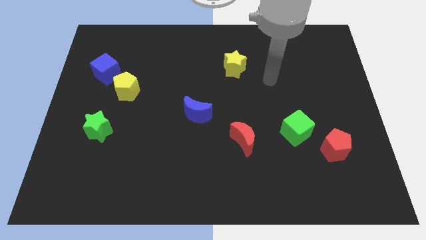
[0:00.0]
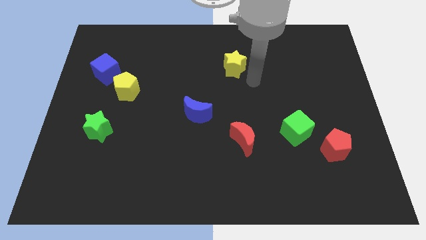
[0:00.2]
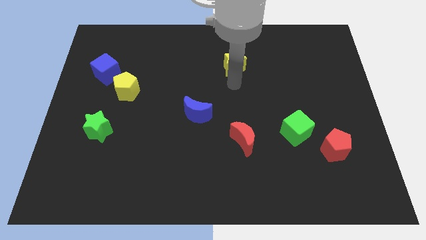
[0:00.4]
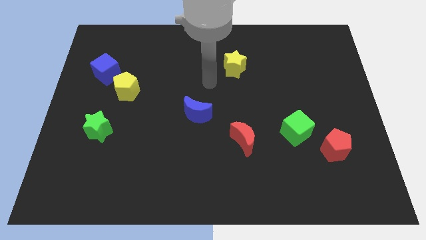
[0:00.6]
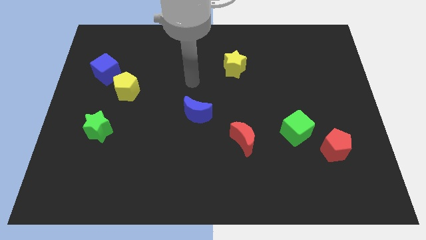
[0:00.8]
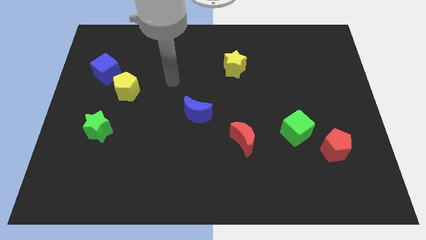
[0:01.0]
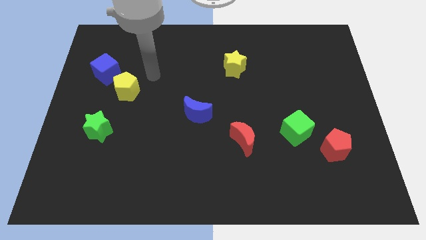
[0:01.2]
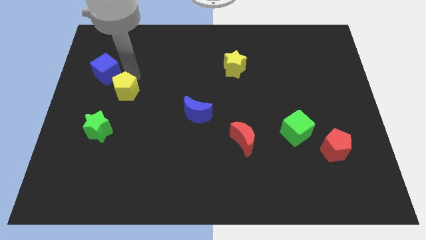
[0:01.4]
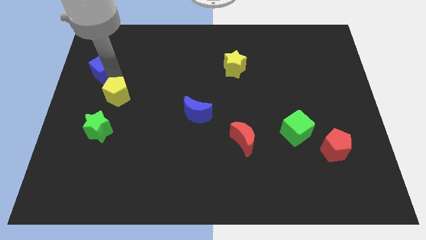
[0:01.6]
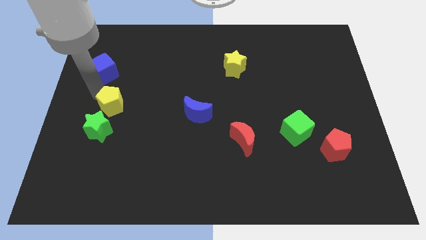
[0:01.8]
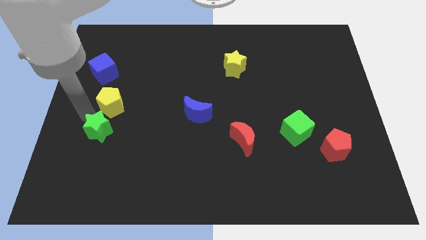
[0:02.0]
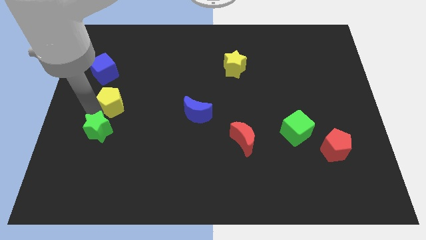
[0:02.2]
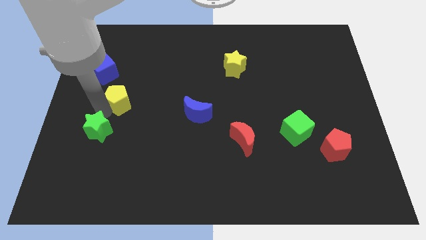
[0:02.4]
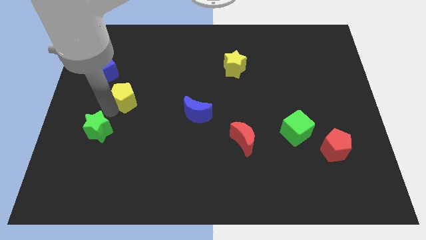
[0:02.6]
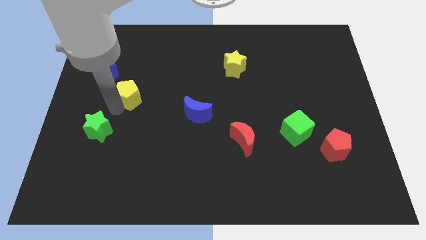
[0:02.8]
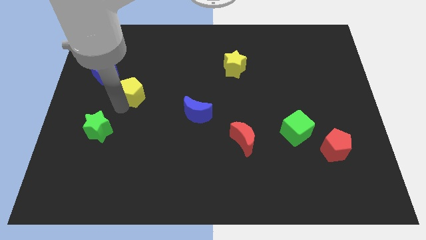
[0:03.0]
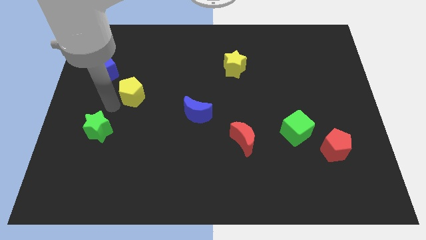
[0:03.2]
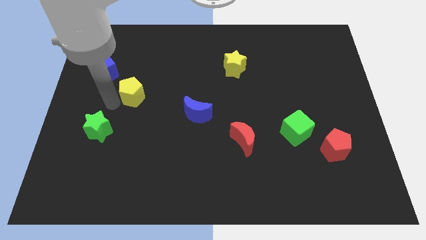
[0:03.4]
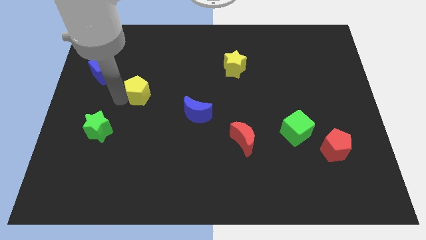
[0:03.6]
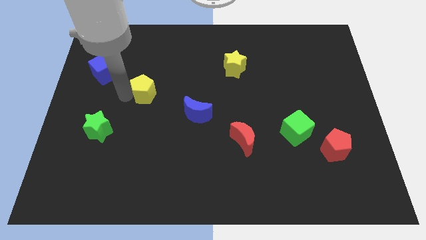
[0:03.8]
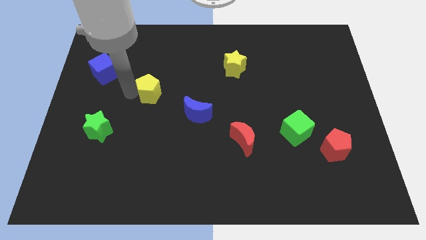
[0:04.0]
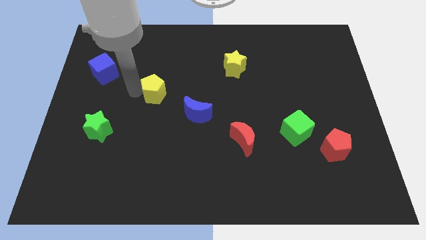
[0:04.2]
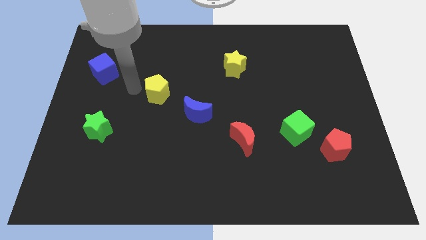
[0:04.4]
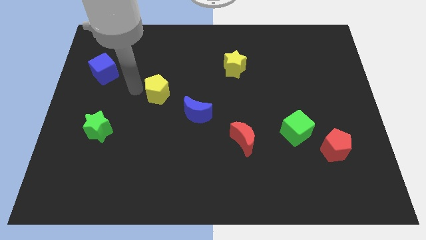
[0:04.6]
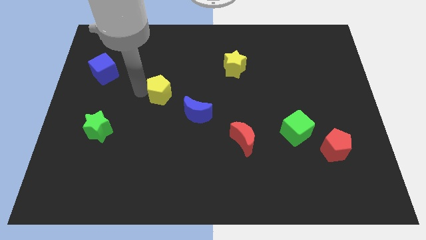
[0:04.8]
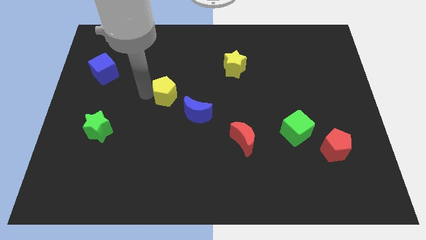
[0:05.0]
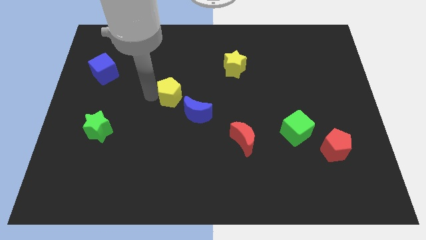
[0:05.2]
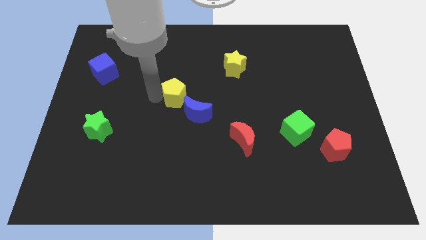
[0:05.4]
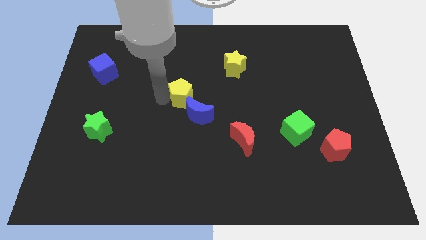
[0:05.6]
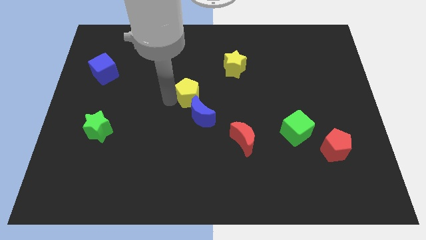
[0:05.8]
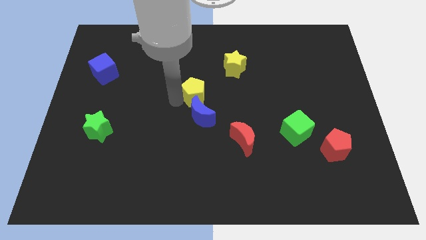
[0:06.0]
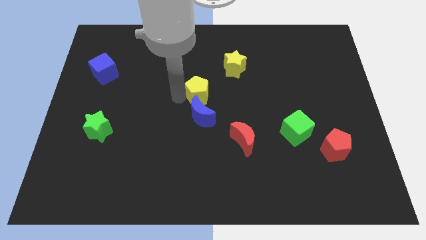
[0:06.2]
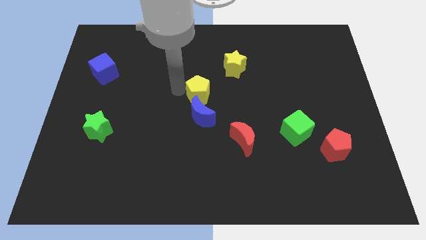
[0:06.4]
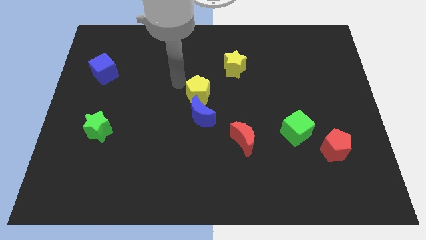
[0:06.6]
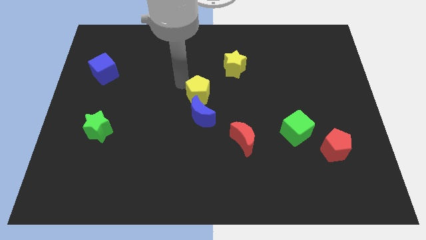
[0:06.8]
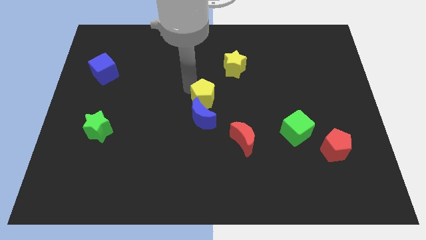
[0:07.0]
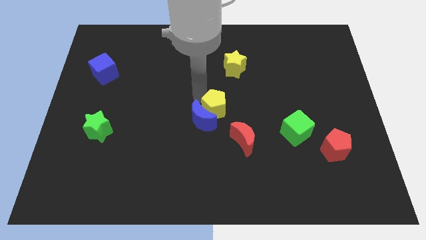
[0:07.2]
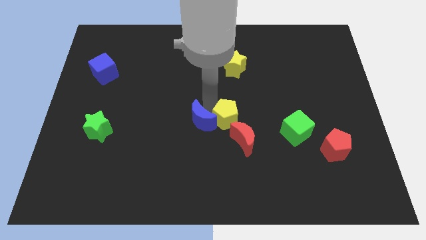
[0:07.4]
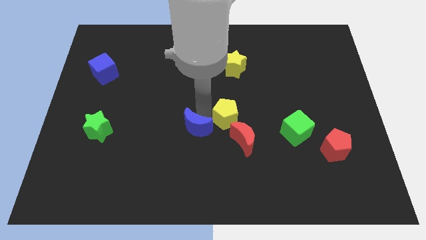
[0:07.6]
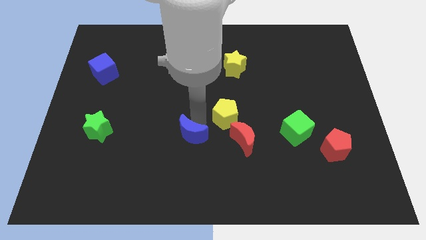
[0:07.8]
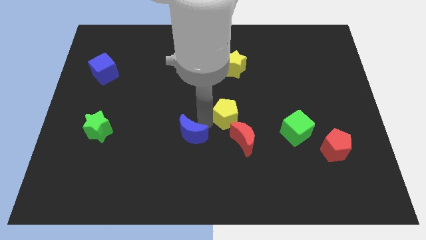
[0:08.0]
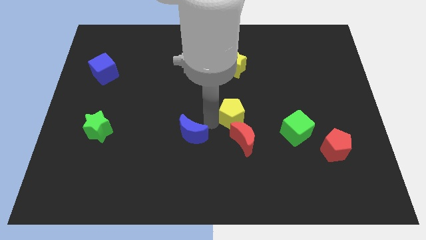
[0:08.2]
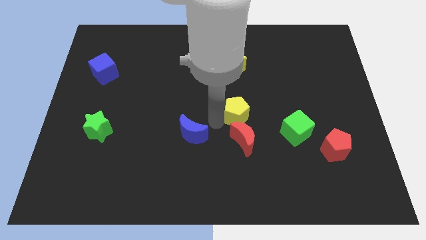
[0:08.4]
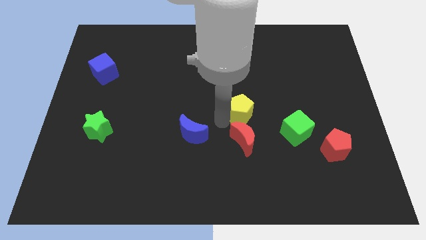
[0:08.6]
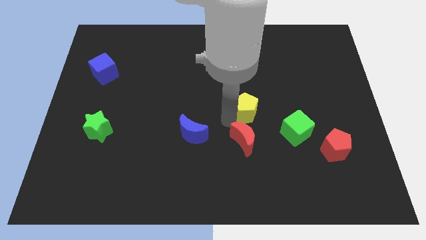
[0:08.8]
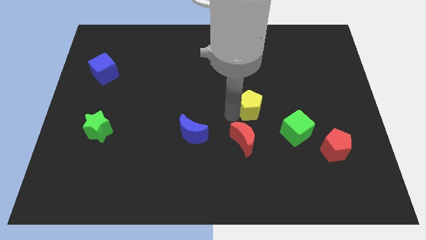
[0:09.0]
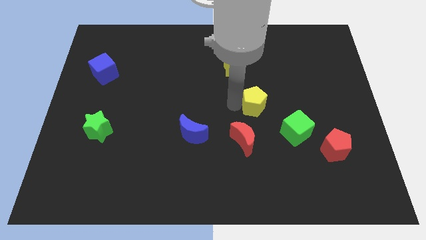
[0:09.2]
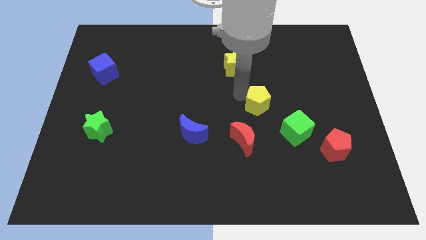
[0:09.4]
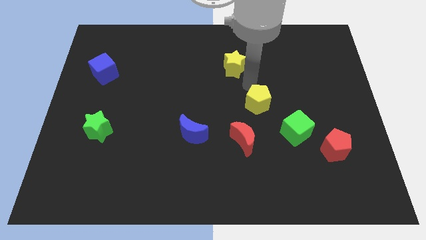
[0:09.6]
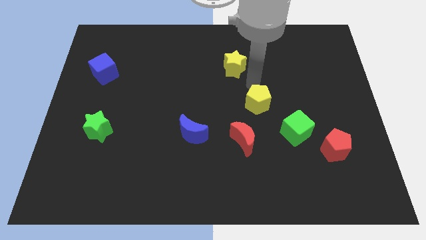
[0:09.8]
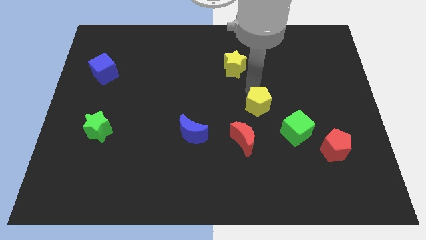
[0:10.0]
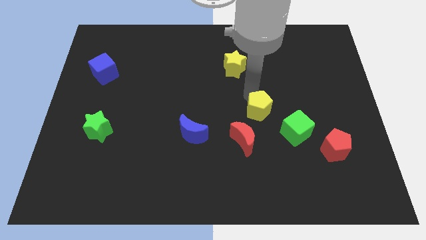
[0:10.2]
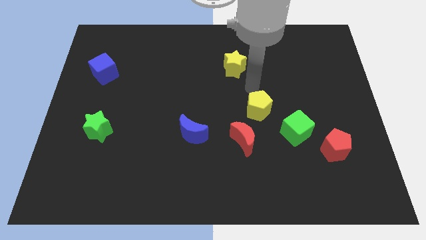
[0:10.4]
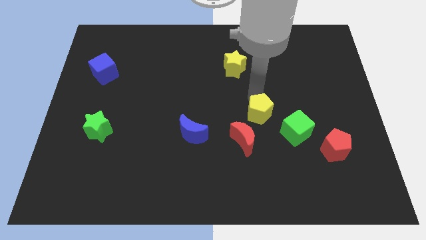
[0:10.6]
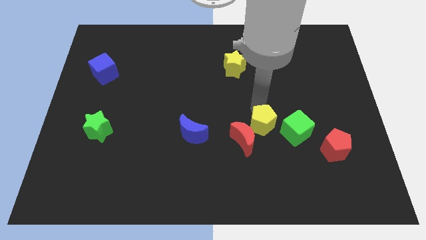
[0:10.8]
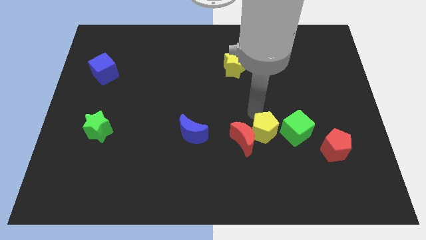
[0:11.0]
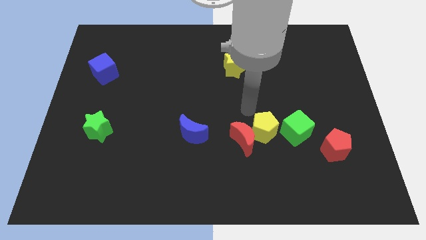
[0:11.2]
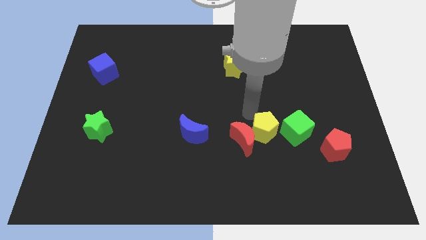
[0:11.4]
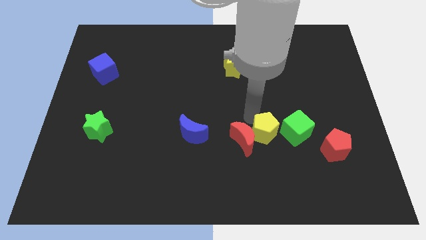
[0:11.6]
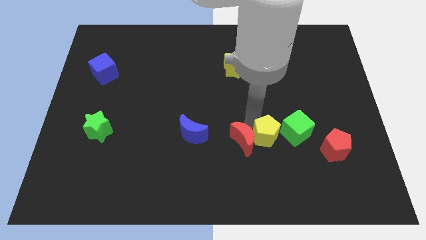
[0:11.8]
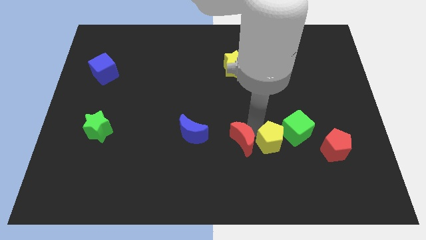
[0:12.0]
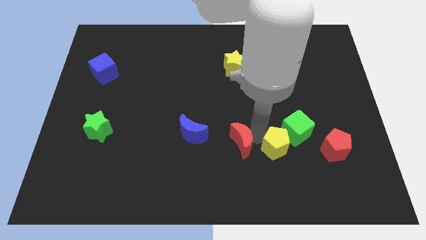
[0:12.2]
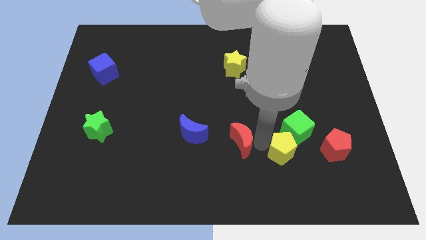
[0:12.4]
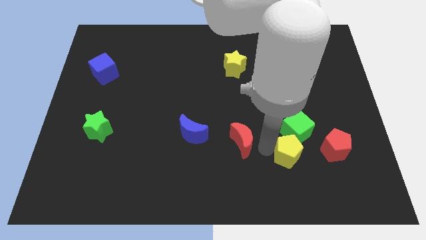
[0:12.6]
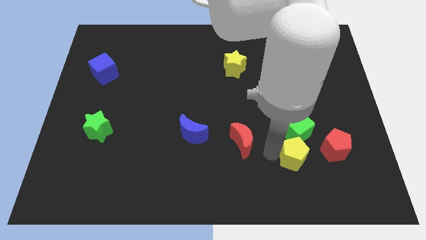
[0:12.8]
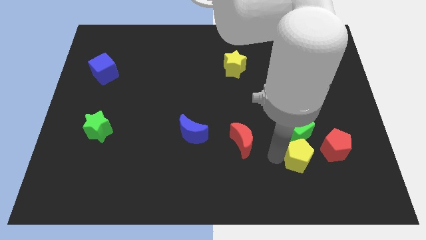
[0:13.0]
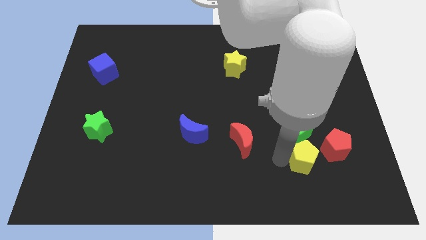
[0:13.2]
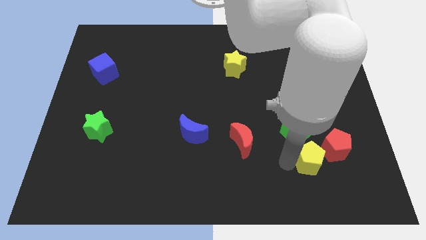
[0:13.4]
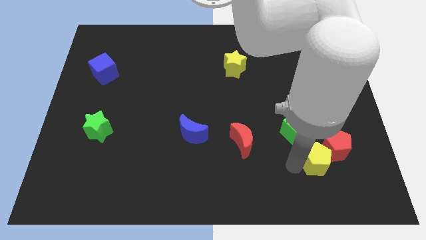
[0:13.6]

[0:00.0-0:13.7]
slide the yellow pentagon next to the red pentagon

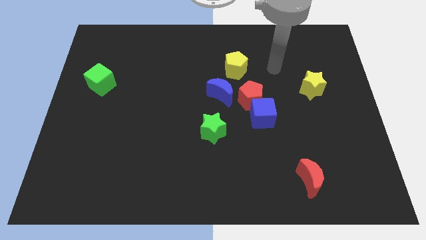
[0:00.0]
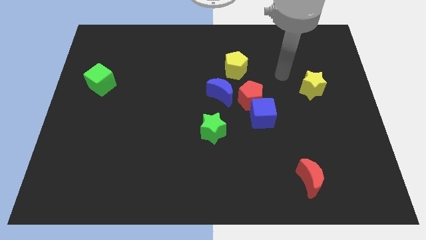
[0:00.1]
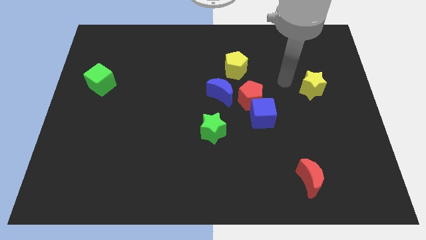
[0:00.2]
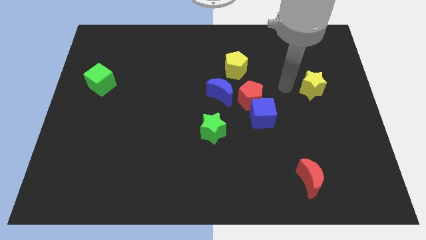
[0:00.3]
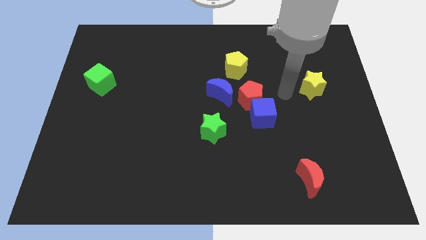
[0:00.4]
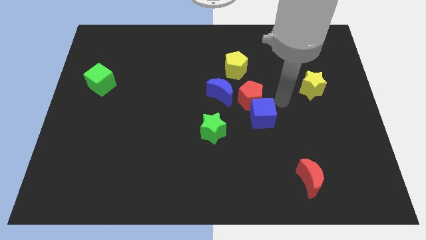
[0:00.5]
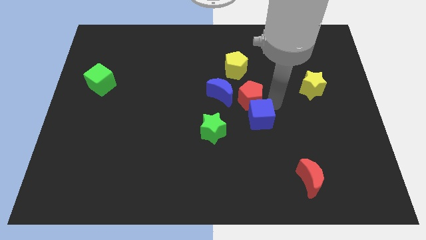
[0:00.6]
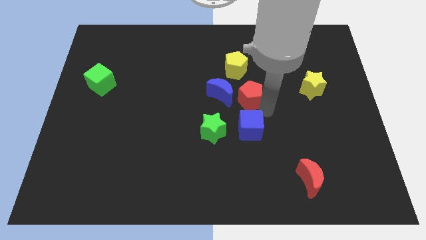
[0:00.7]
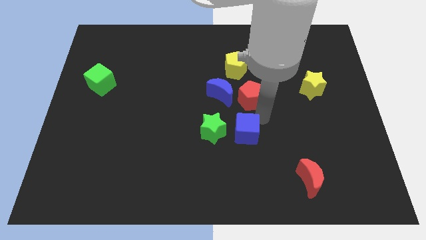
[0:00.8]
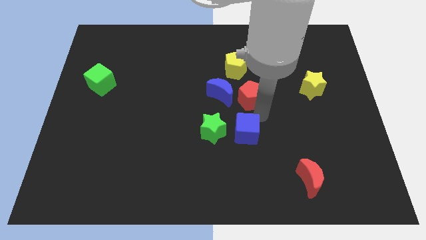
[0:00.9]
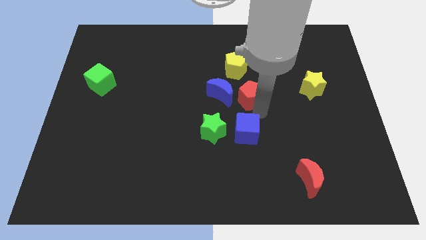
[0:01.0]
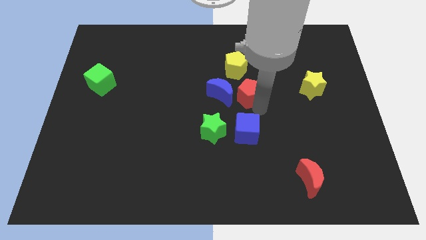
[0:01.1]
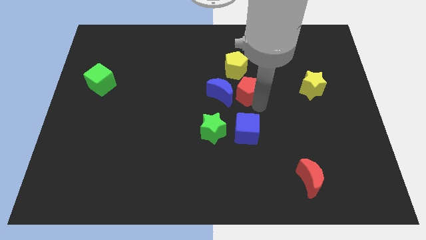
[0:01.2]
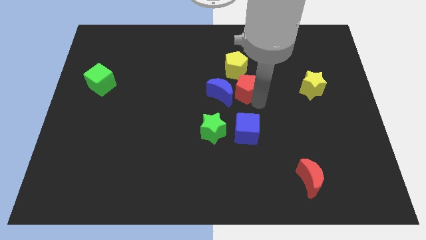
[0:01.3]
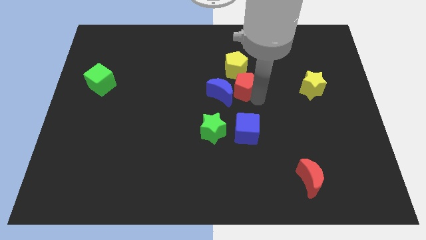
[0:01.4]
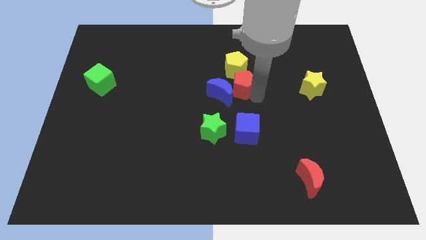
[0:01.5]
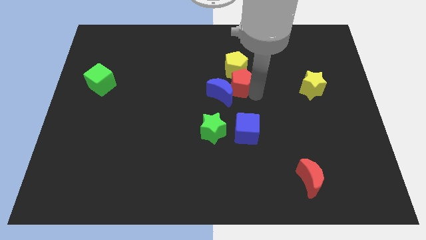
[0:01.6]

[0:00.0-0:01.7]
slide the red pentagon close to the yellow pentagon
